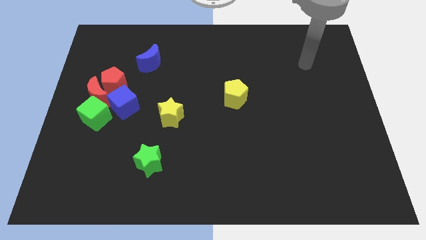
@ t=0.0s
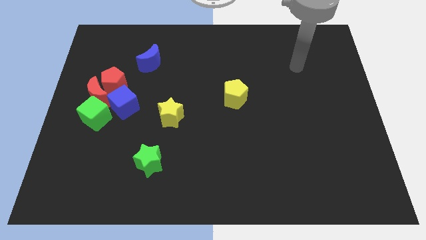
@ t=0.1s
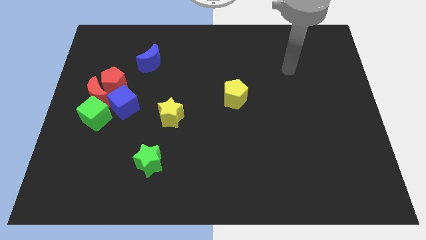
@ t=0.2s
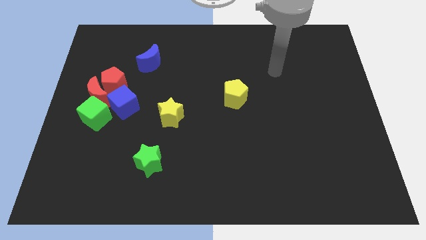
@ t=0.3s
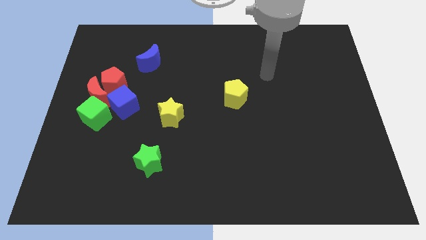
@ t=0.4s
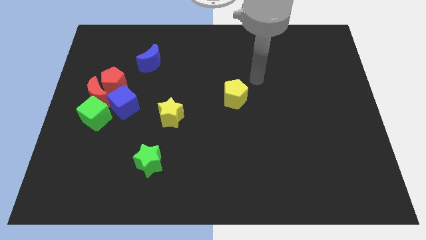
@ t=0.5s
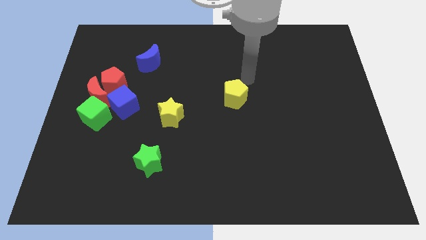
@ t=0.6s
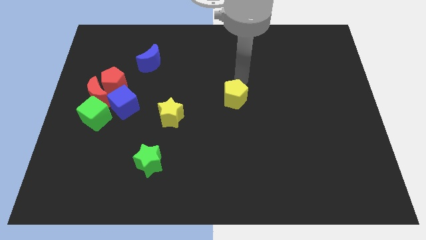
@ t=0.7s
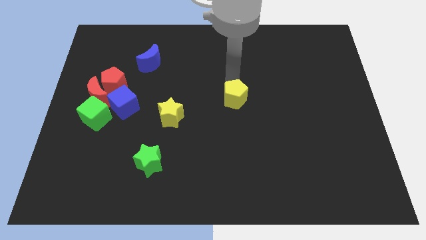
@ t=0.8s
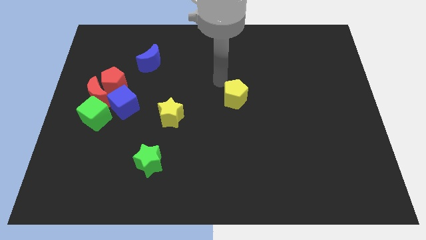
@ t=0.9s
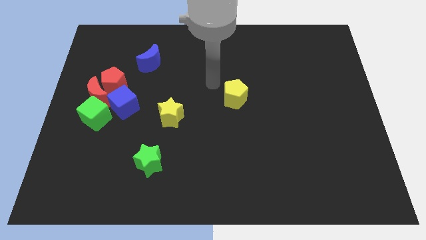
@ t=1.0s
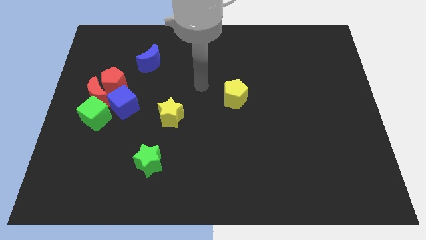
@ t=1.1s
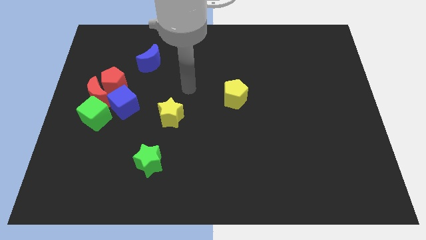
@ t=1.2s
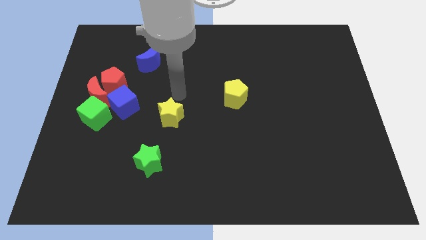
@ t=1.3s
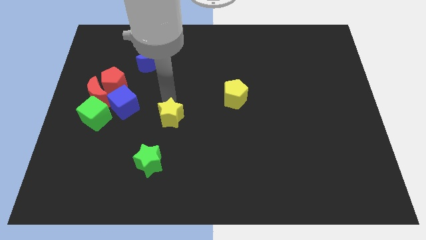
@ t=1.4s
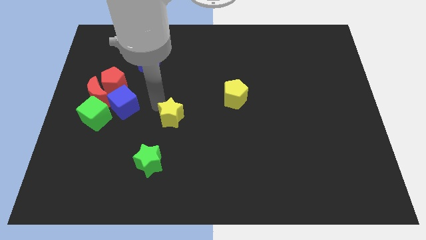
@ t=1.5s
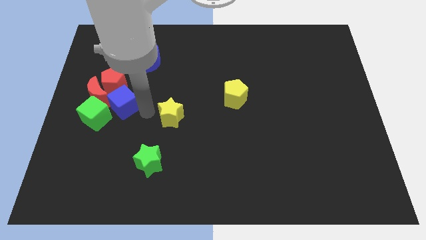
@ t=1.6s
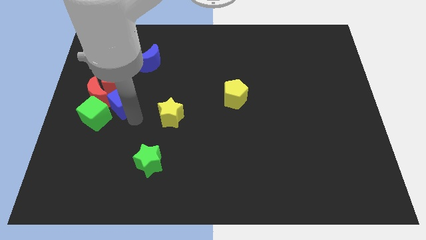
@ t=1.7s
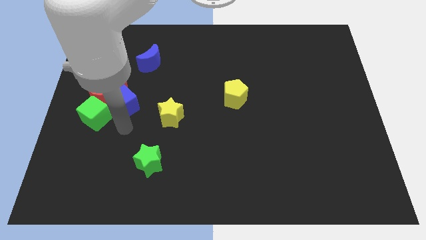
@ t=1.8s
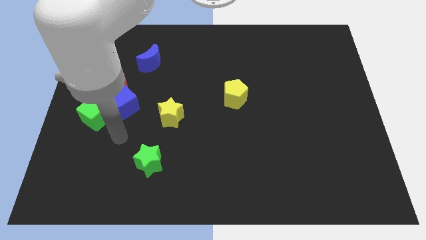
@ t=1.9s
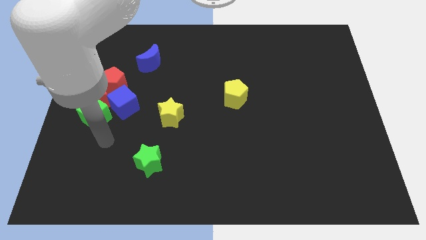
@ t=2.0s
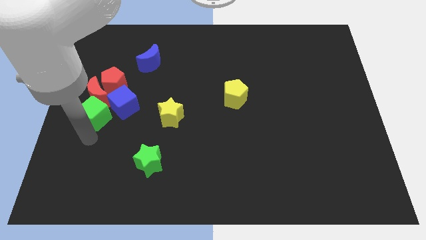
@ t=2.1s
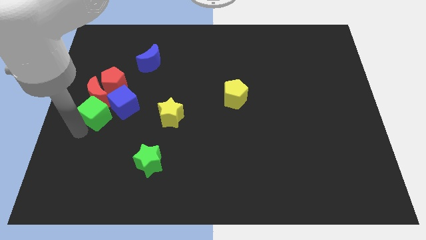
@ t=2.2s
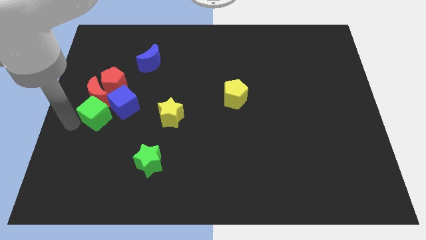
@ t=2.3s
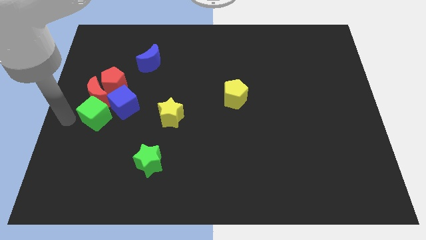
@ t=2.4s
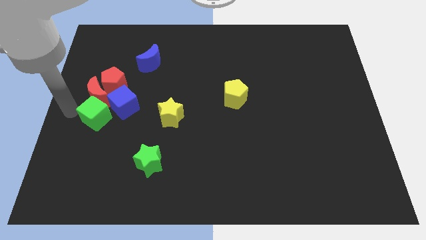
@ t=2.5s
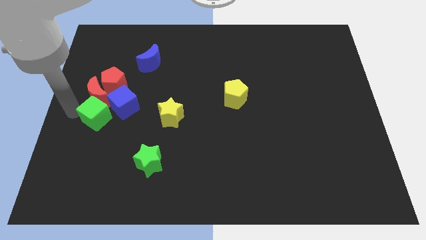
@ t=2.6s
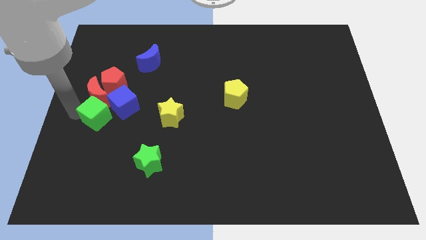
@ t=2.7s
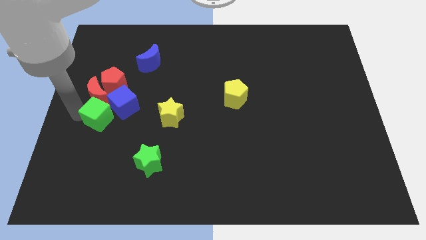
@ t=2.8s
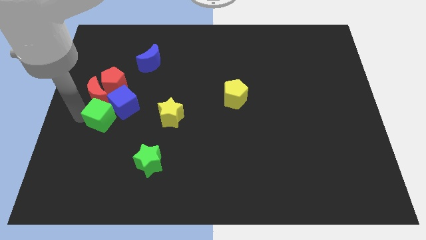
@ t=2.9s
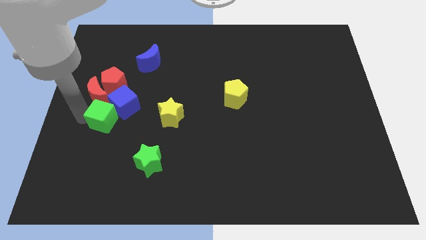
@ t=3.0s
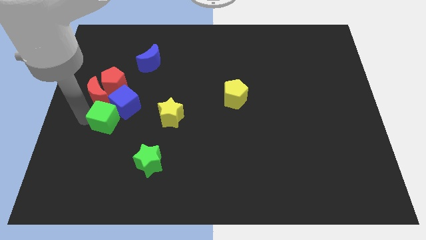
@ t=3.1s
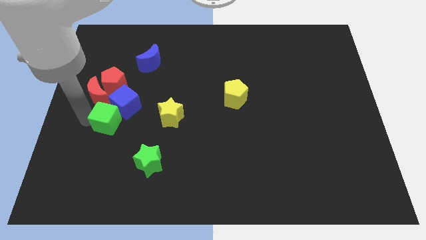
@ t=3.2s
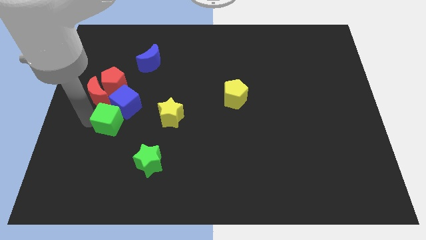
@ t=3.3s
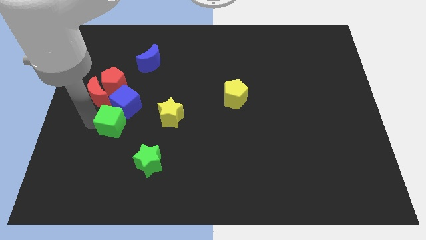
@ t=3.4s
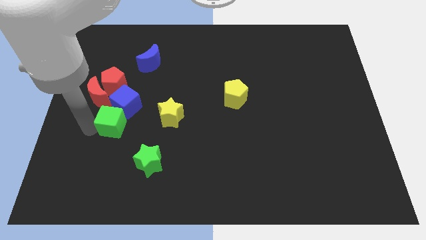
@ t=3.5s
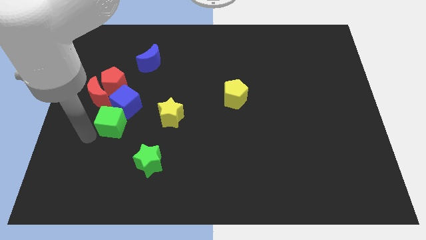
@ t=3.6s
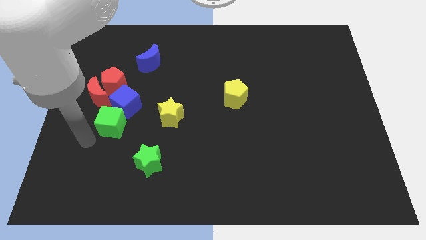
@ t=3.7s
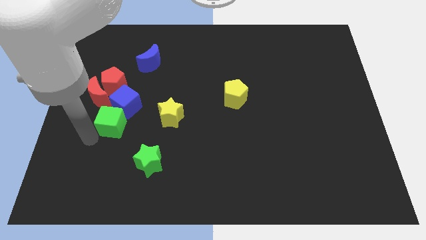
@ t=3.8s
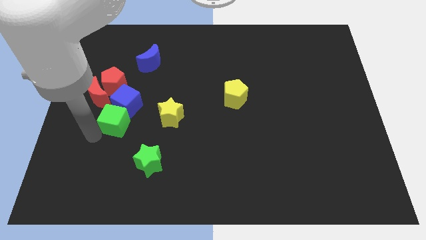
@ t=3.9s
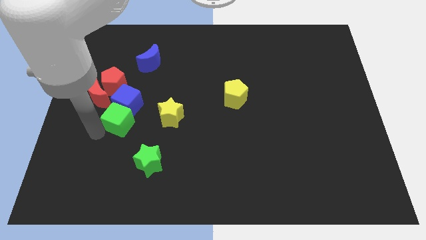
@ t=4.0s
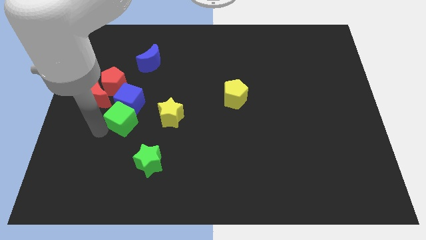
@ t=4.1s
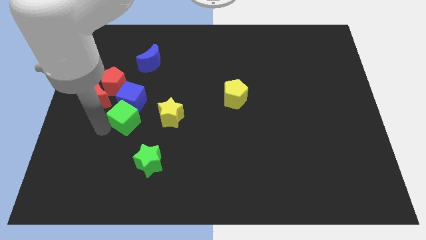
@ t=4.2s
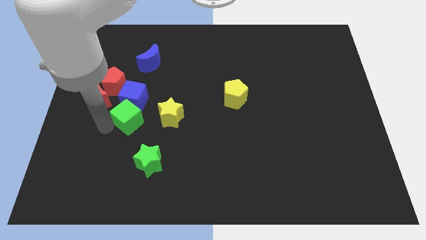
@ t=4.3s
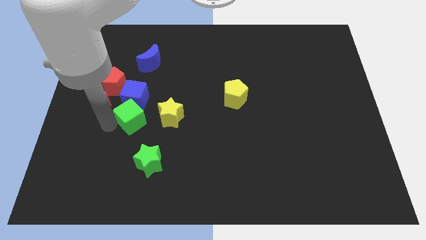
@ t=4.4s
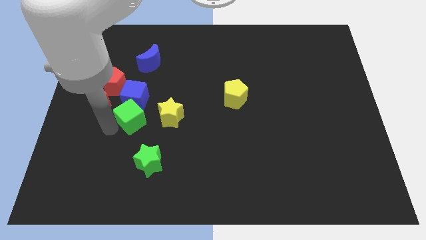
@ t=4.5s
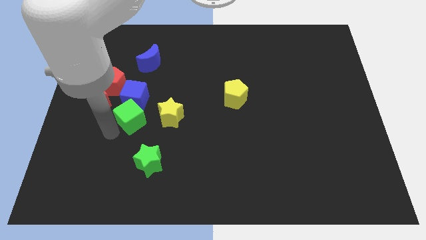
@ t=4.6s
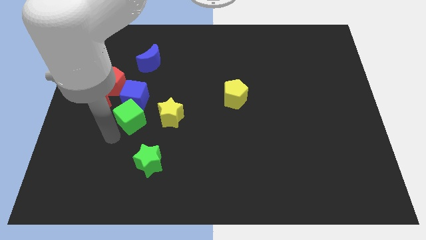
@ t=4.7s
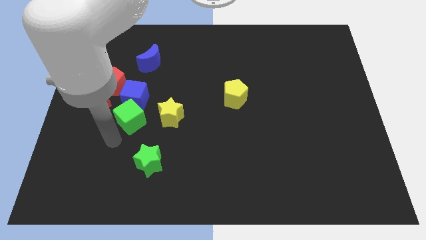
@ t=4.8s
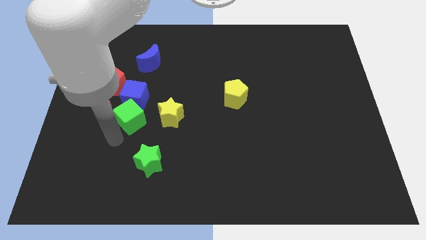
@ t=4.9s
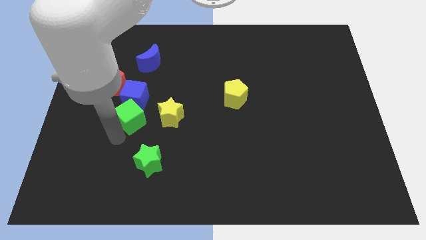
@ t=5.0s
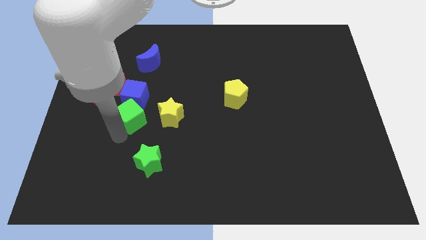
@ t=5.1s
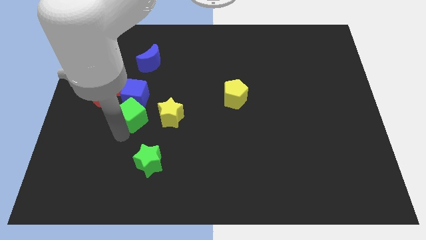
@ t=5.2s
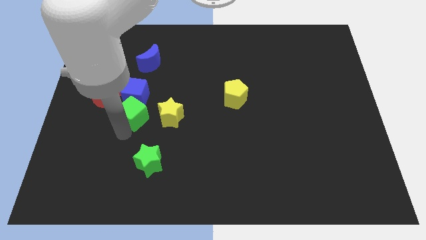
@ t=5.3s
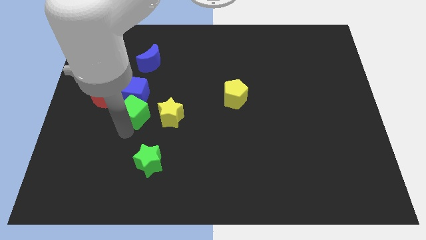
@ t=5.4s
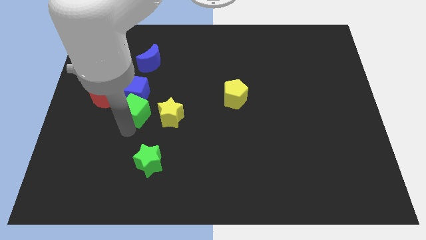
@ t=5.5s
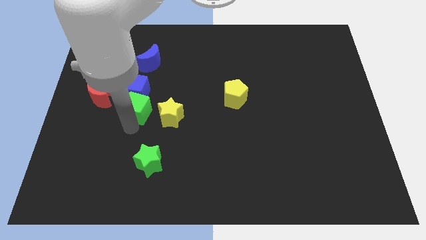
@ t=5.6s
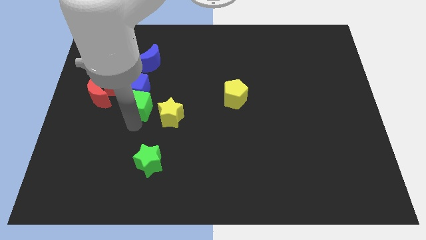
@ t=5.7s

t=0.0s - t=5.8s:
move the green cube a little bit upwards and right

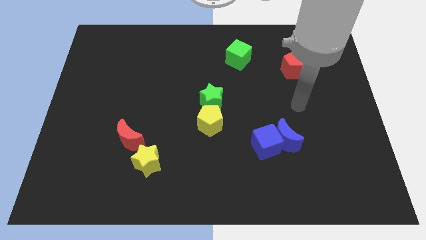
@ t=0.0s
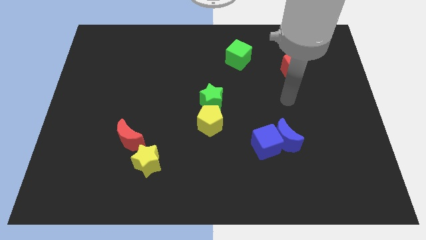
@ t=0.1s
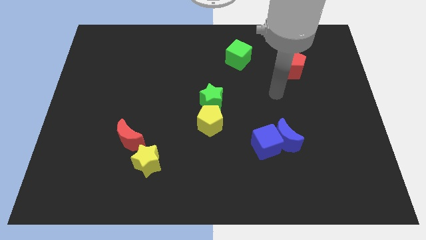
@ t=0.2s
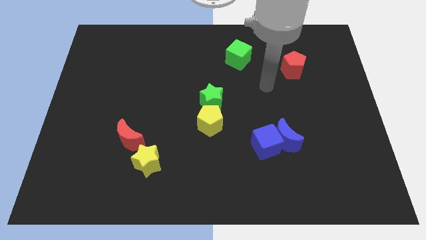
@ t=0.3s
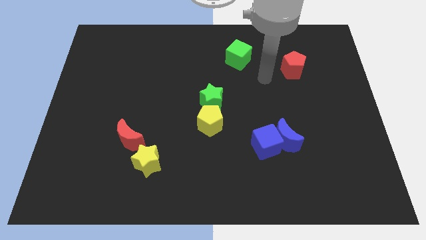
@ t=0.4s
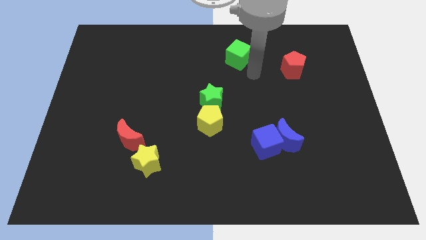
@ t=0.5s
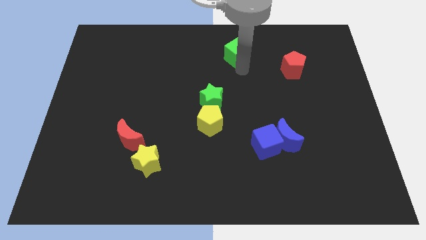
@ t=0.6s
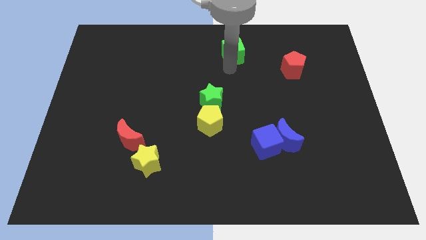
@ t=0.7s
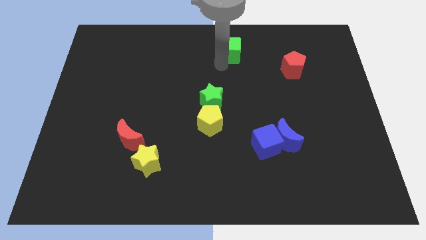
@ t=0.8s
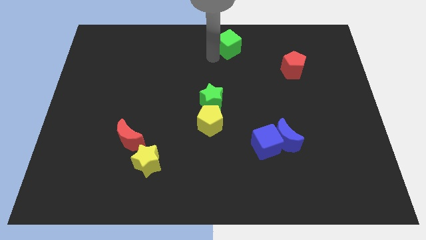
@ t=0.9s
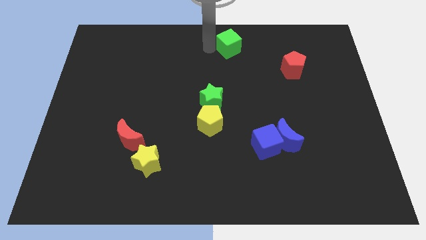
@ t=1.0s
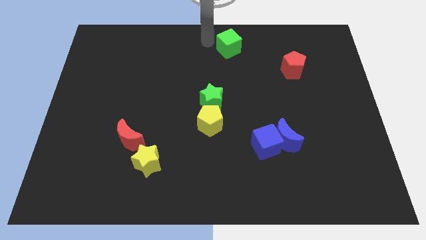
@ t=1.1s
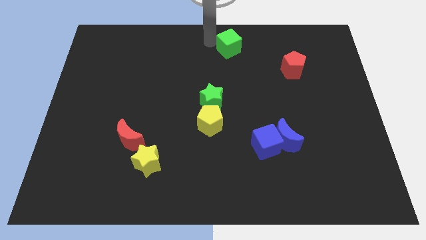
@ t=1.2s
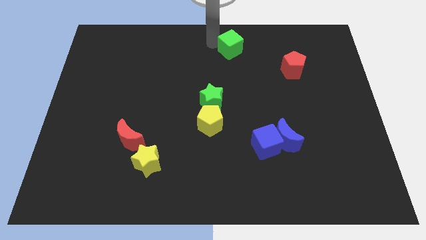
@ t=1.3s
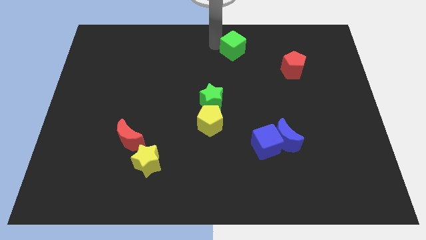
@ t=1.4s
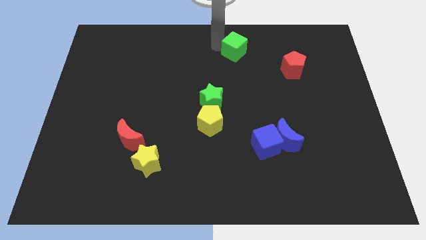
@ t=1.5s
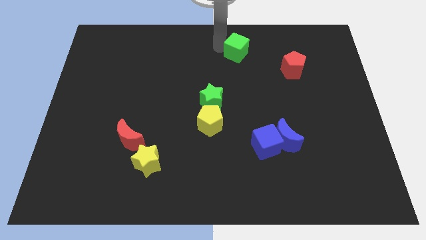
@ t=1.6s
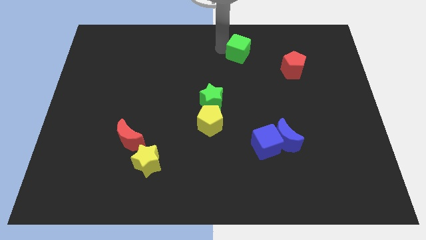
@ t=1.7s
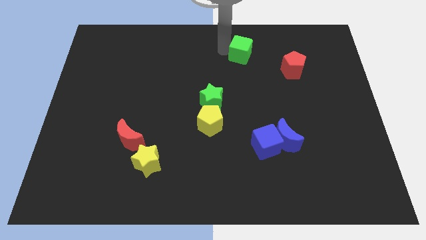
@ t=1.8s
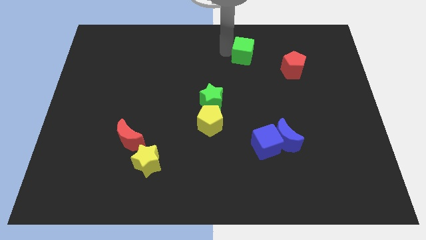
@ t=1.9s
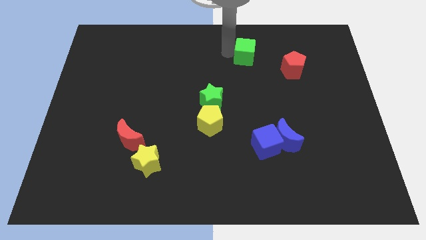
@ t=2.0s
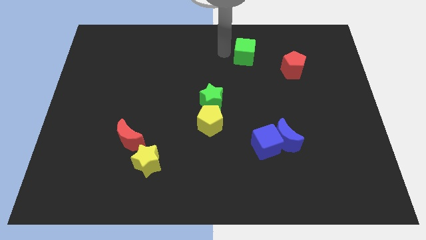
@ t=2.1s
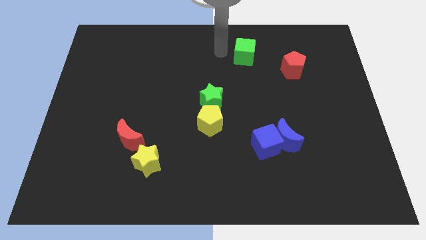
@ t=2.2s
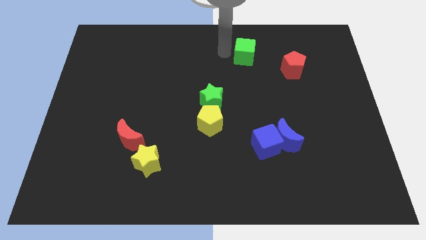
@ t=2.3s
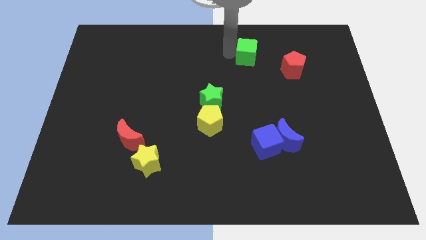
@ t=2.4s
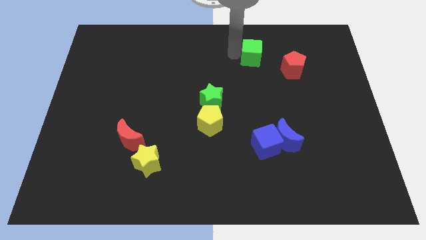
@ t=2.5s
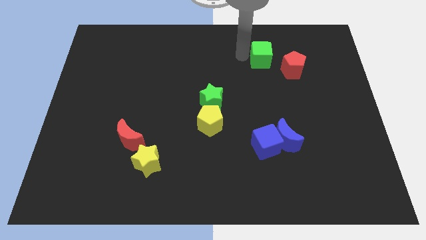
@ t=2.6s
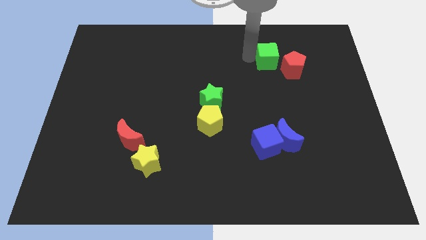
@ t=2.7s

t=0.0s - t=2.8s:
move the green cube right a little
